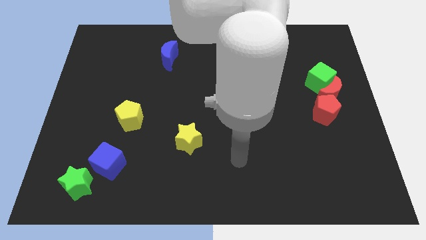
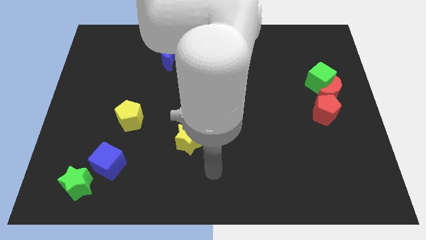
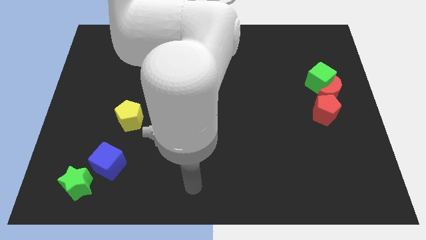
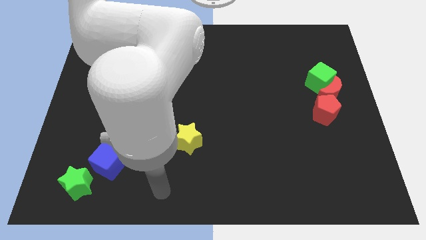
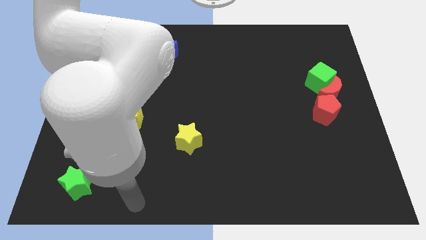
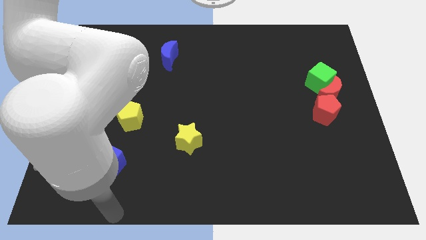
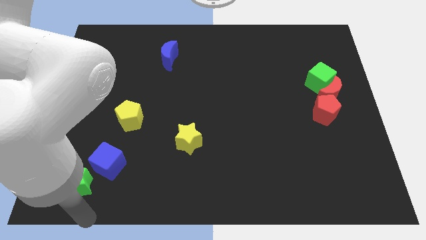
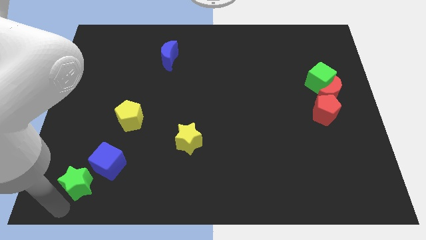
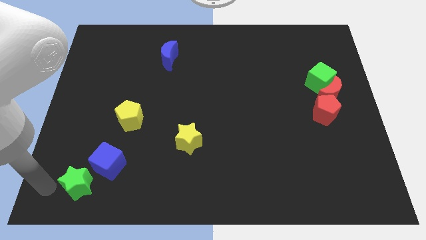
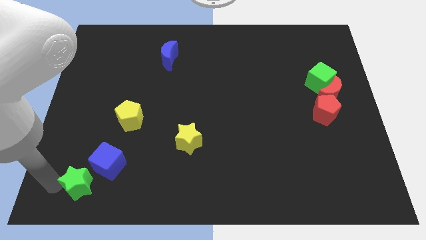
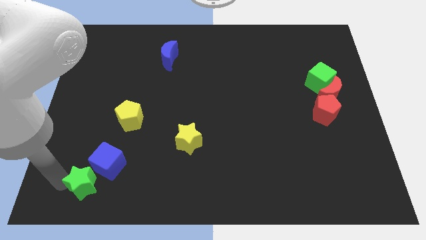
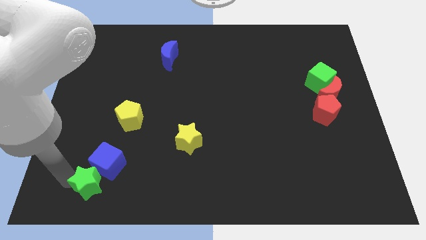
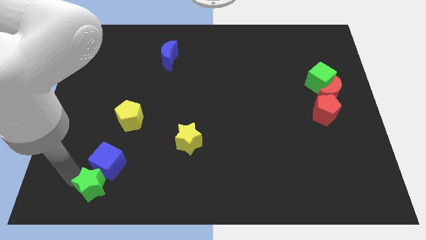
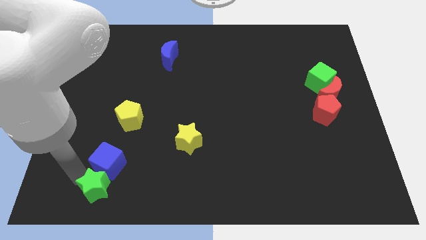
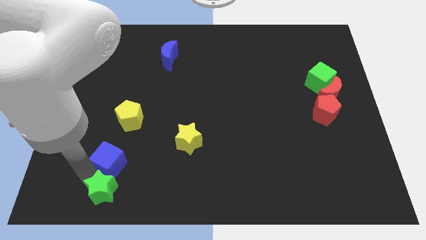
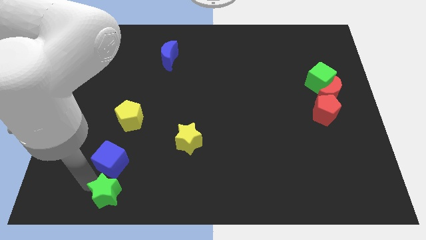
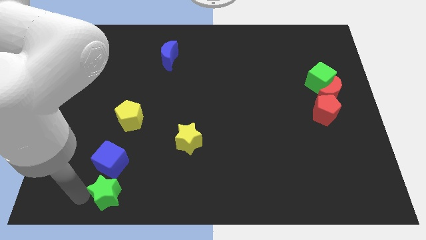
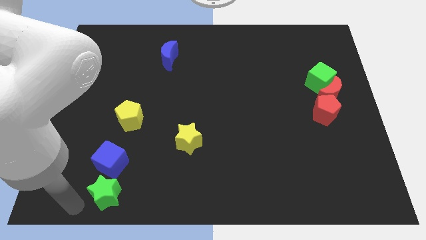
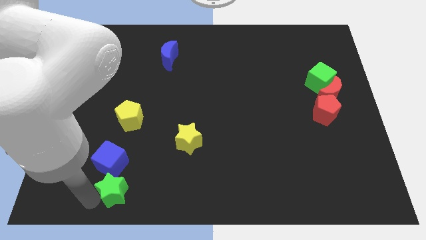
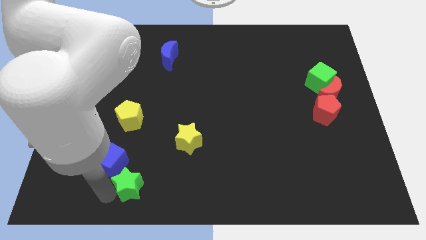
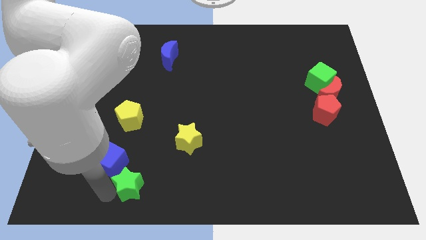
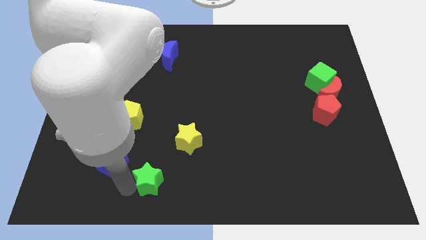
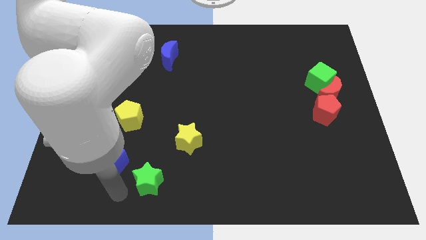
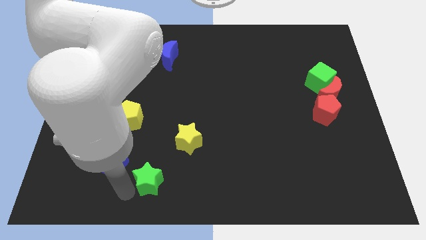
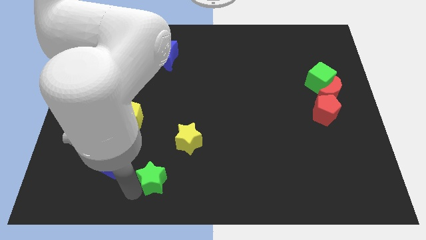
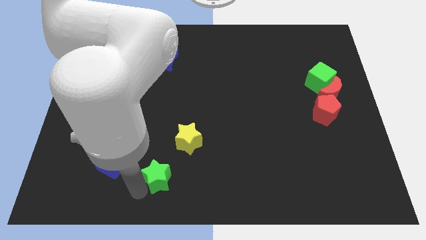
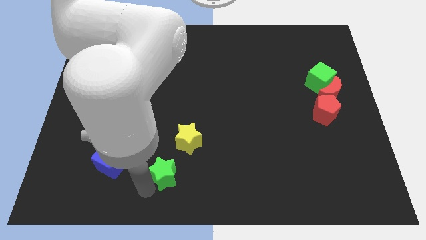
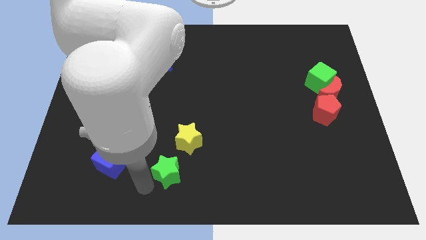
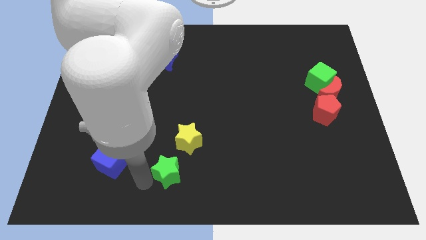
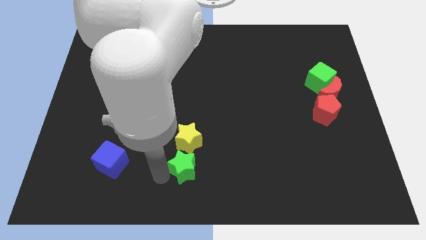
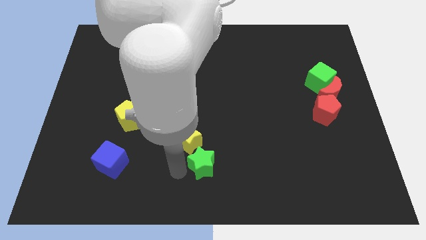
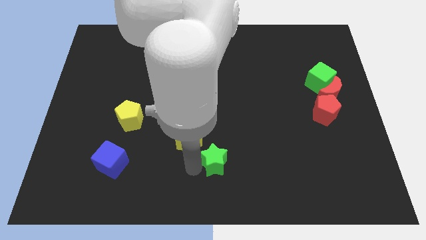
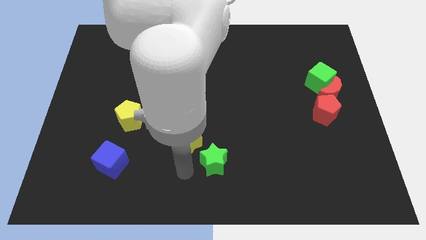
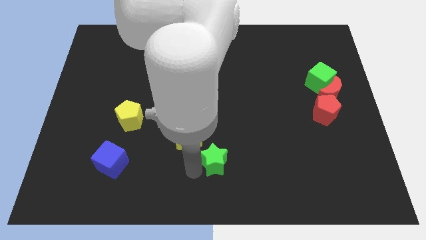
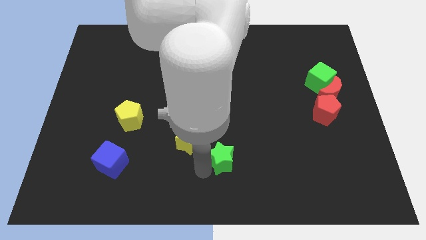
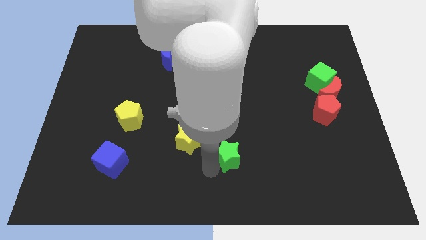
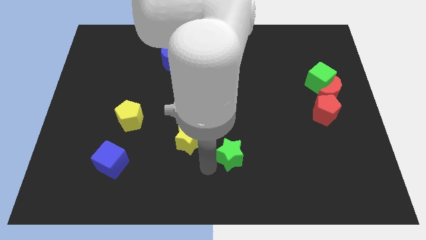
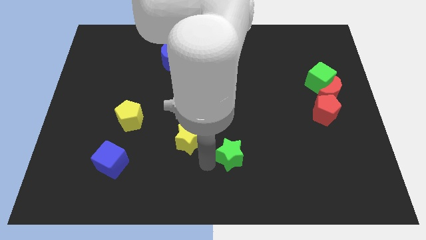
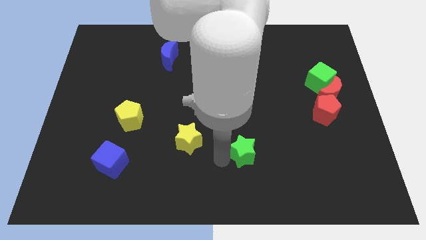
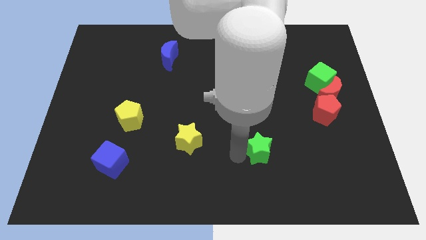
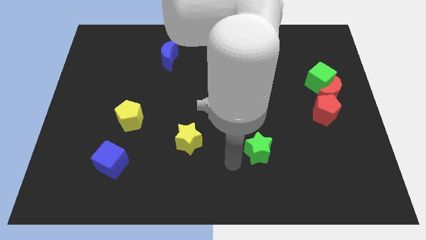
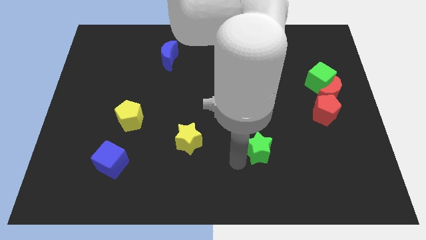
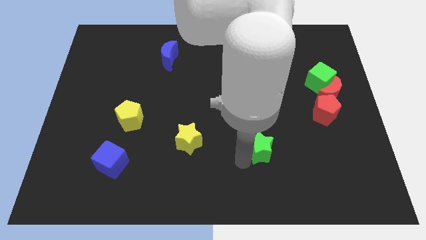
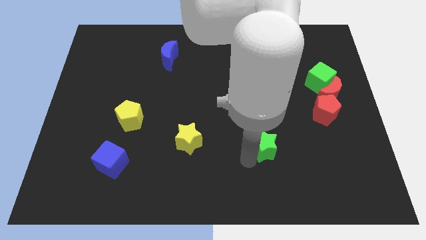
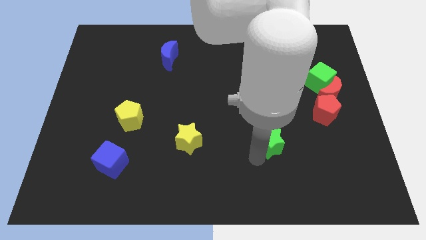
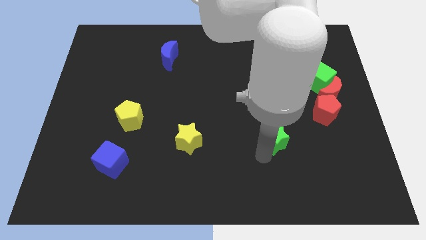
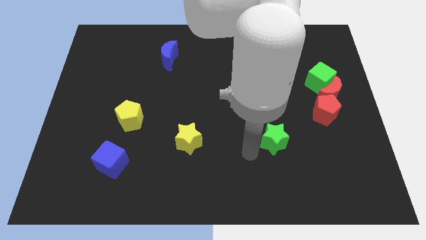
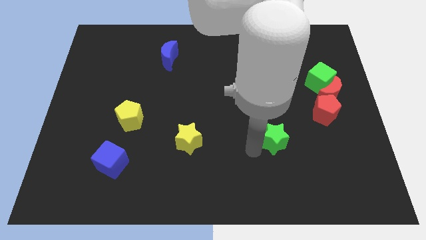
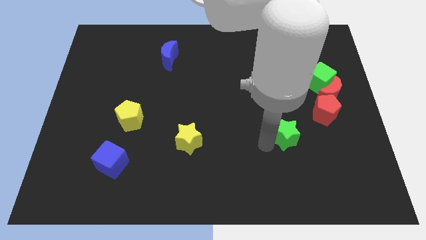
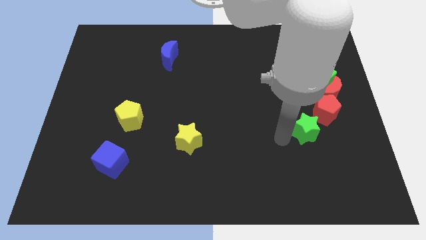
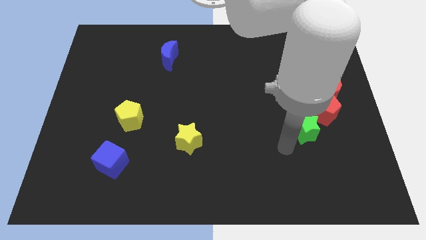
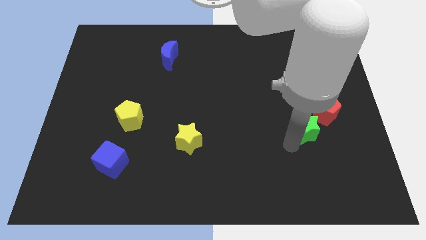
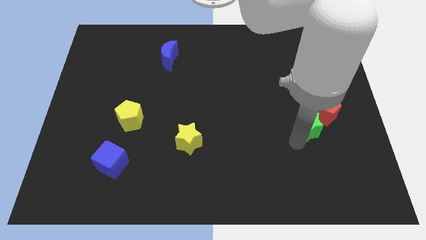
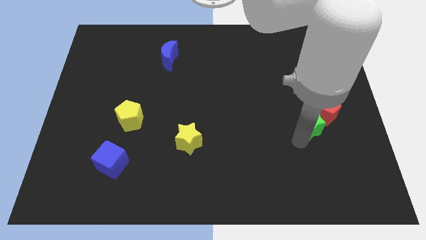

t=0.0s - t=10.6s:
move the green star towards the red pentagon

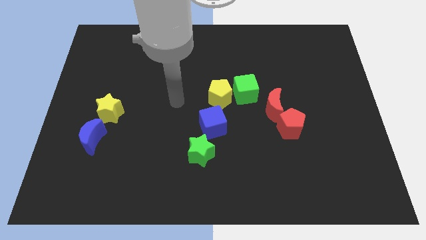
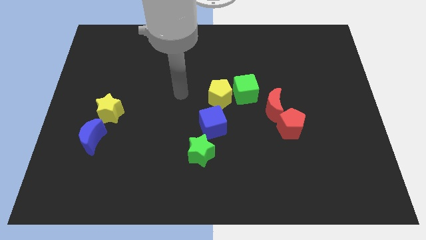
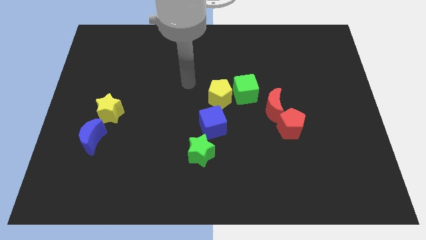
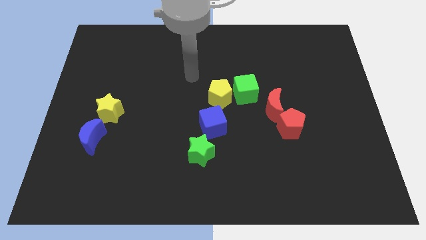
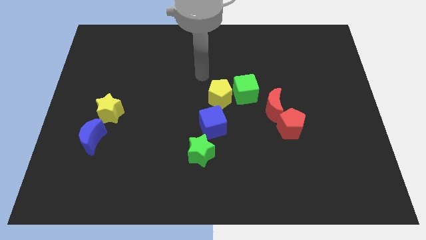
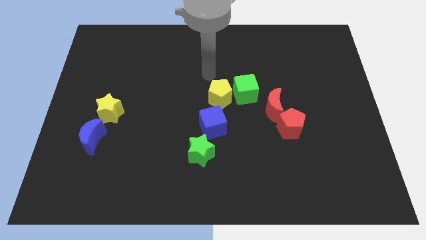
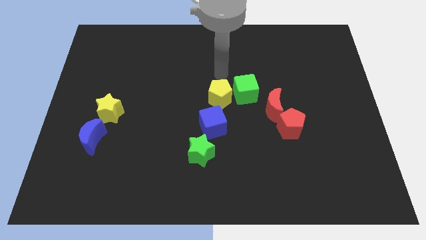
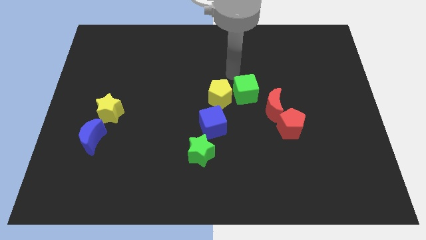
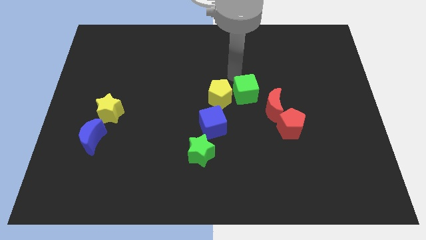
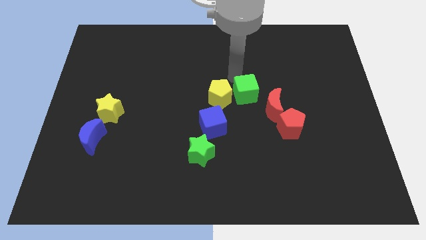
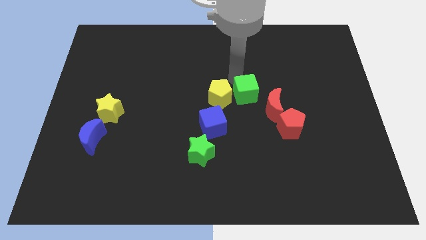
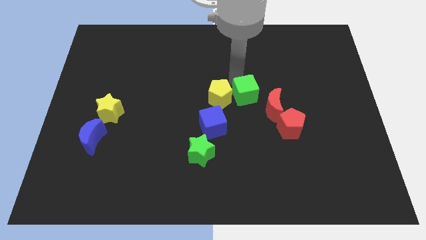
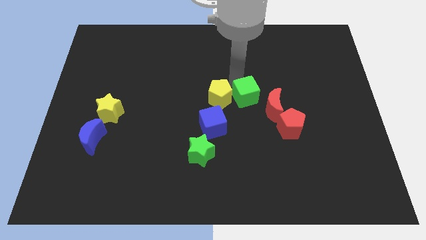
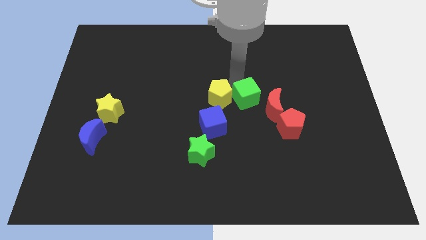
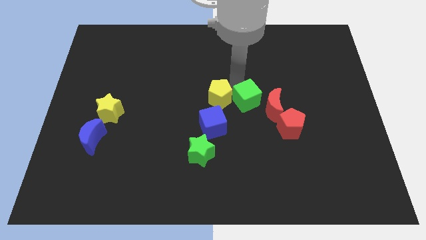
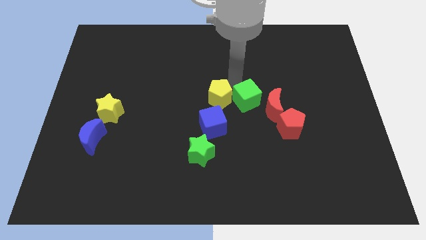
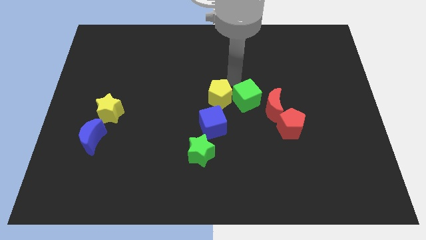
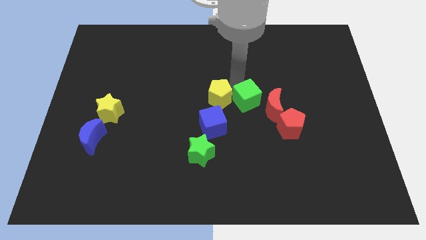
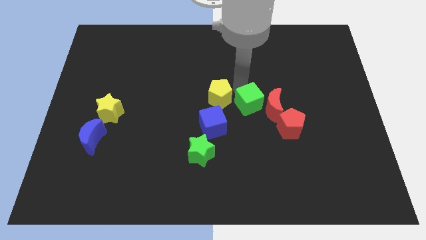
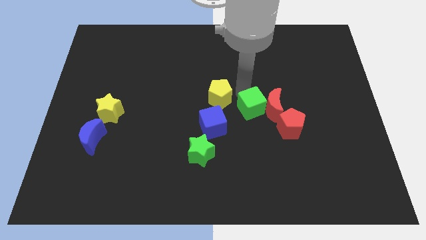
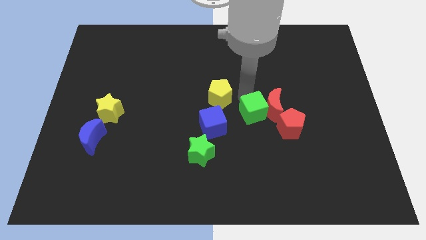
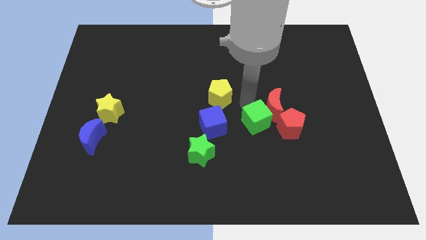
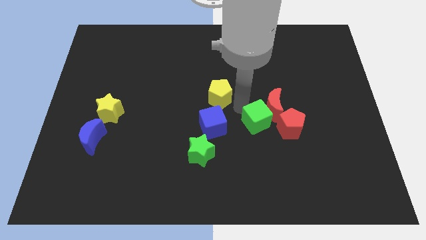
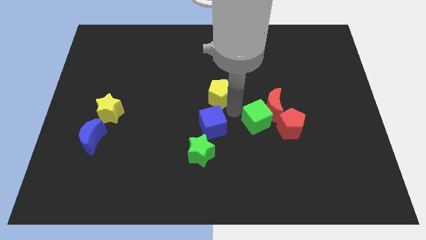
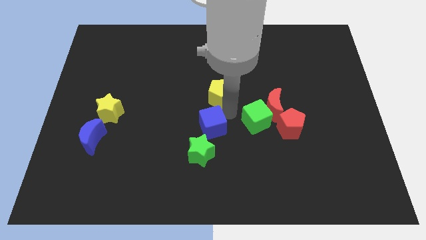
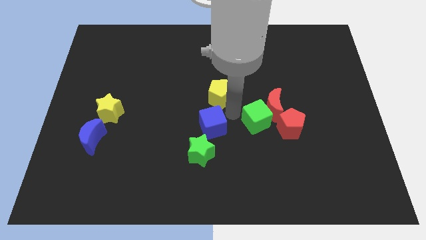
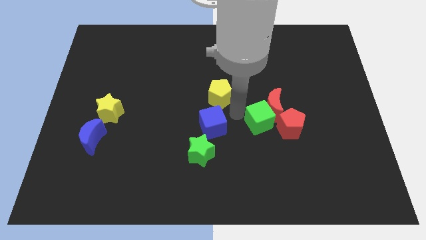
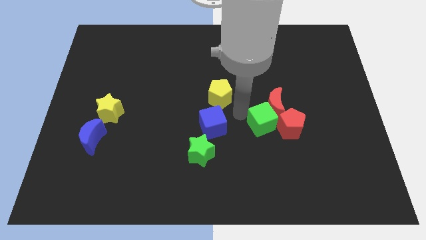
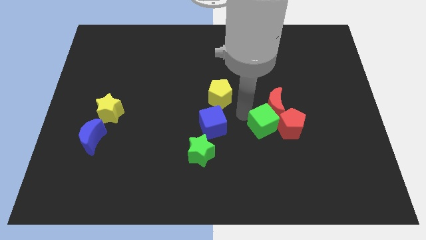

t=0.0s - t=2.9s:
move the green cube close to the red pentagon
